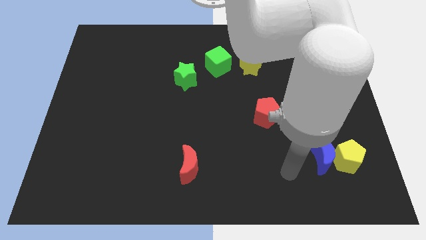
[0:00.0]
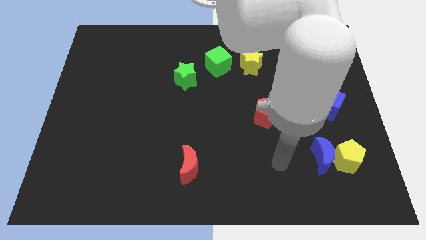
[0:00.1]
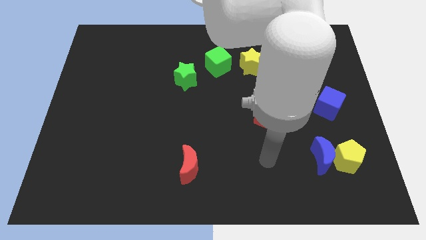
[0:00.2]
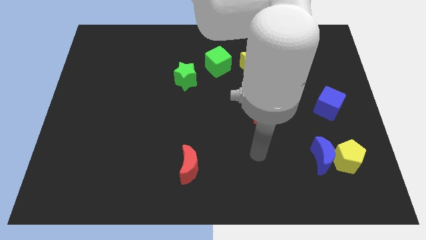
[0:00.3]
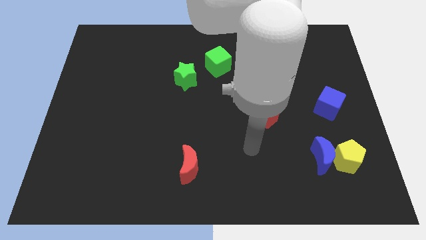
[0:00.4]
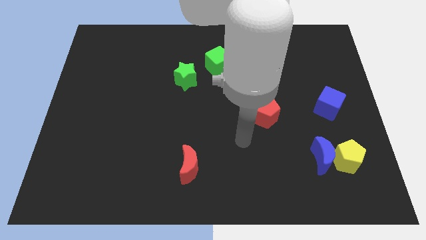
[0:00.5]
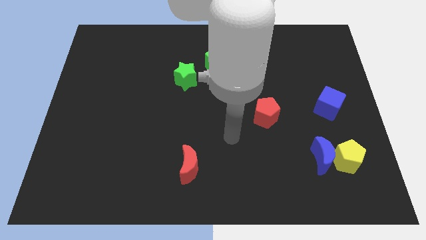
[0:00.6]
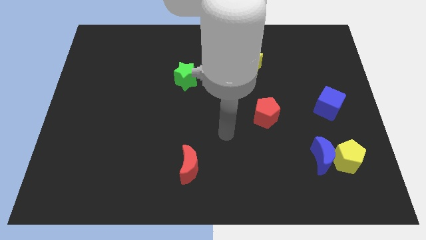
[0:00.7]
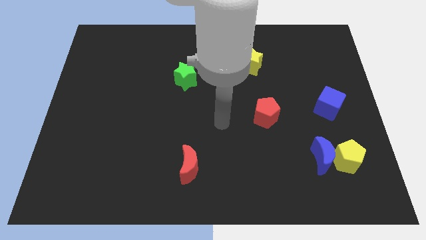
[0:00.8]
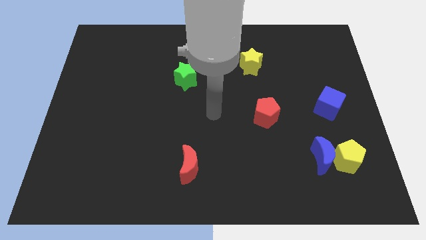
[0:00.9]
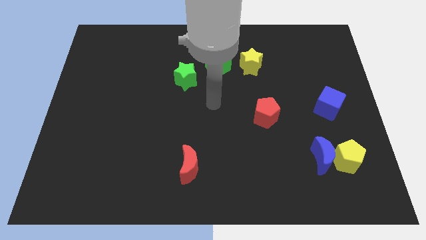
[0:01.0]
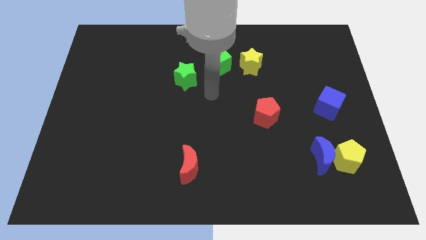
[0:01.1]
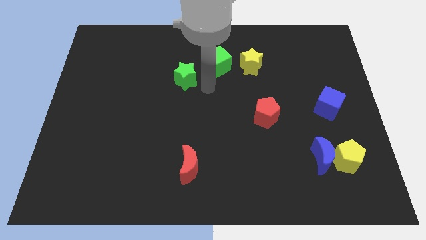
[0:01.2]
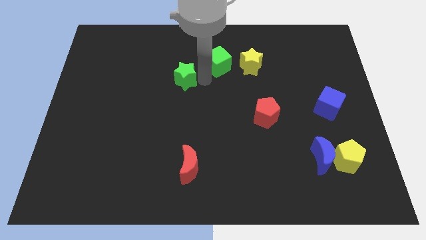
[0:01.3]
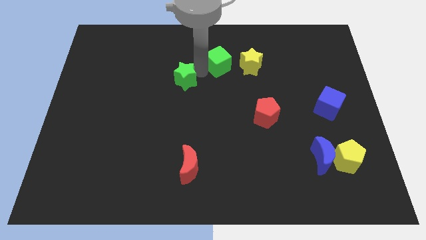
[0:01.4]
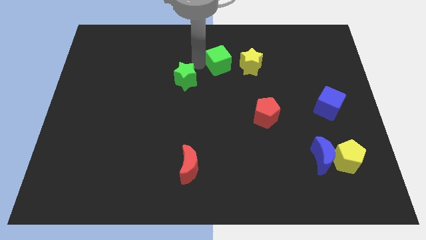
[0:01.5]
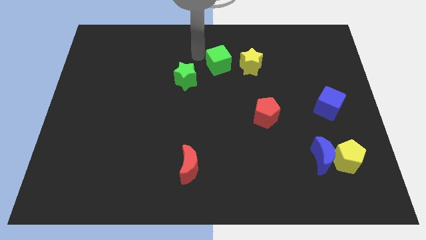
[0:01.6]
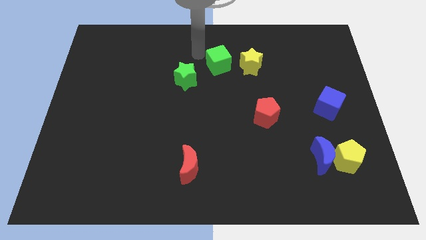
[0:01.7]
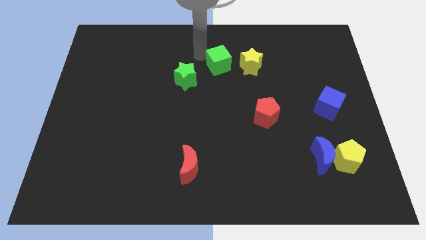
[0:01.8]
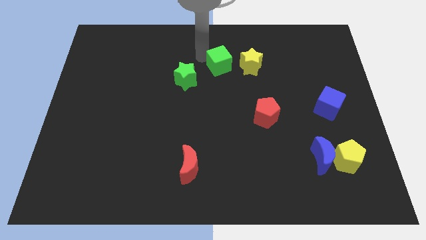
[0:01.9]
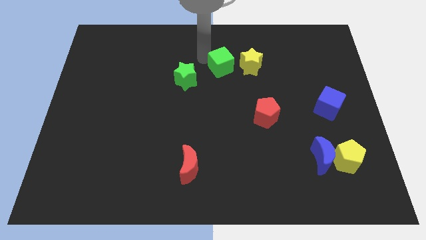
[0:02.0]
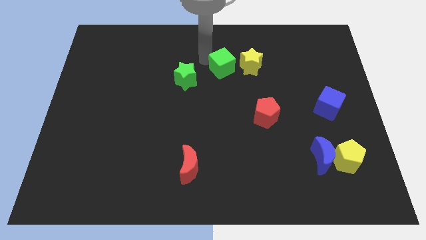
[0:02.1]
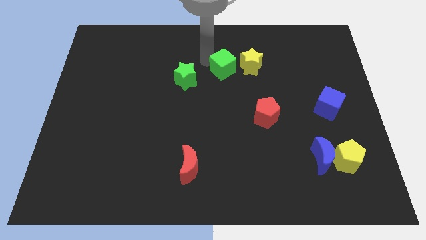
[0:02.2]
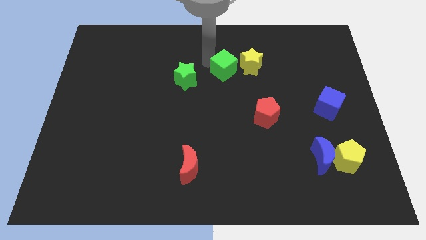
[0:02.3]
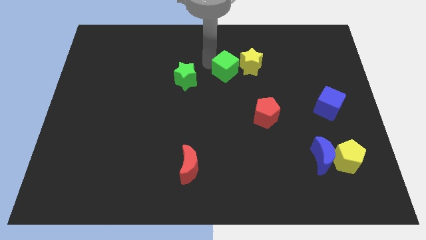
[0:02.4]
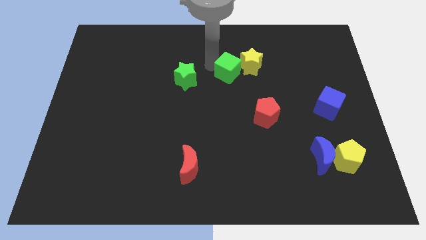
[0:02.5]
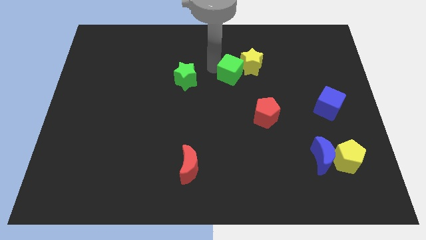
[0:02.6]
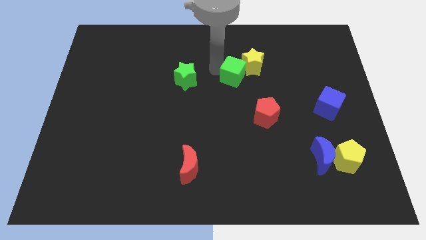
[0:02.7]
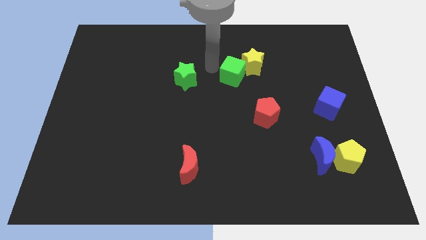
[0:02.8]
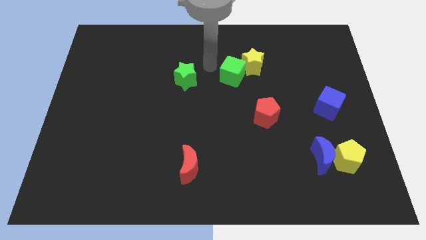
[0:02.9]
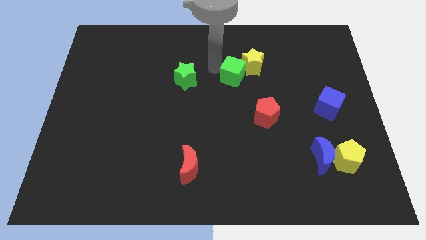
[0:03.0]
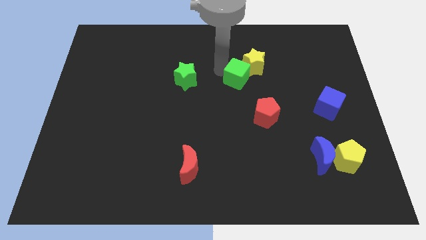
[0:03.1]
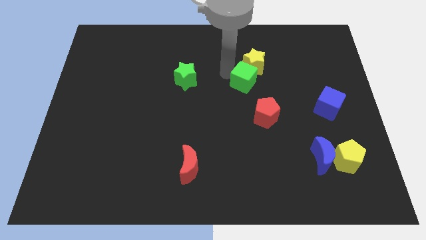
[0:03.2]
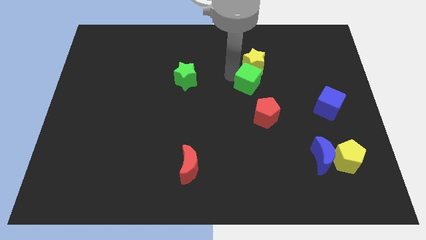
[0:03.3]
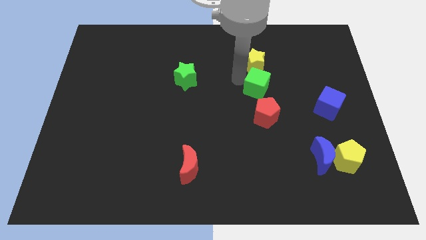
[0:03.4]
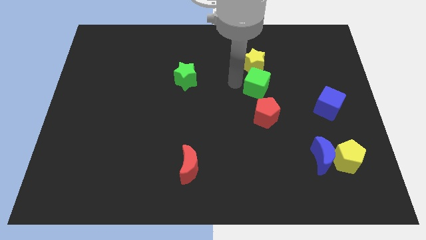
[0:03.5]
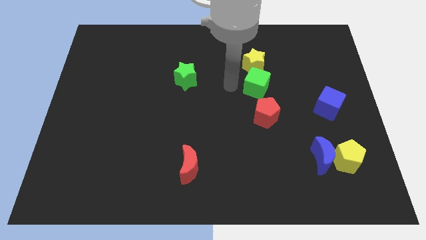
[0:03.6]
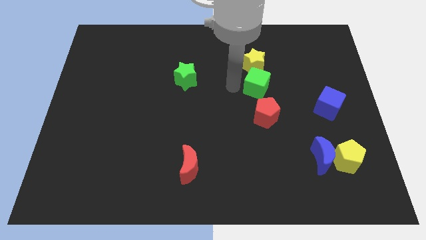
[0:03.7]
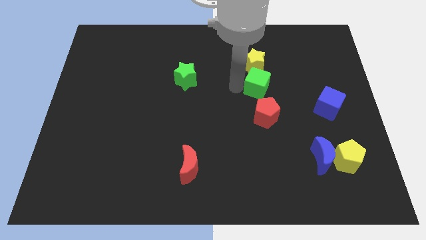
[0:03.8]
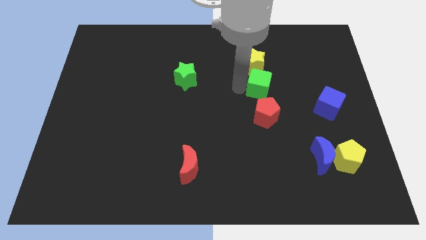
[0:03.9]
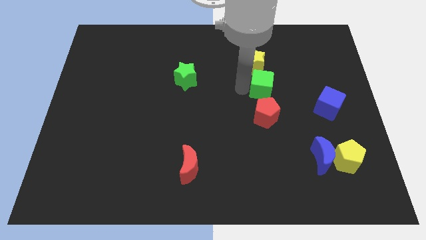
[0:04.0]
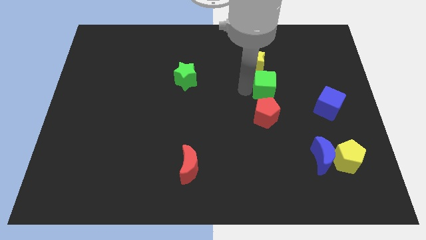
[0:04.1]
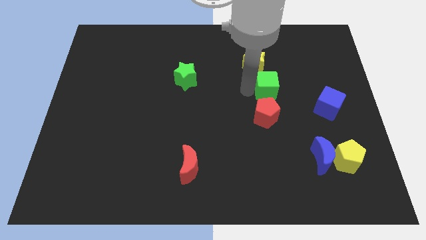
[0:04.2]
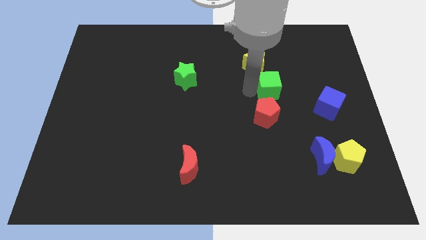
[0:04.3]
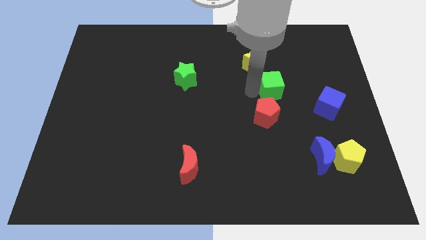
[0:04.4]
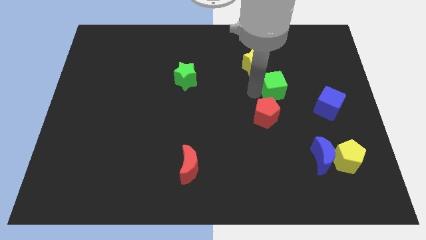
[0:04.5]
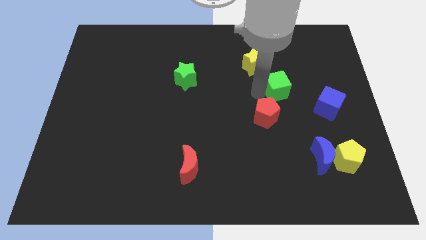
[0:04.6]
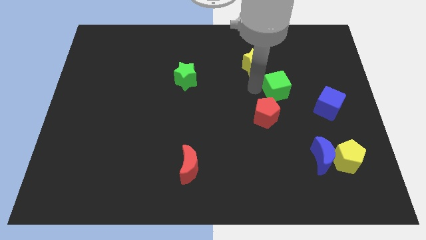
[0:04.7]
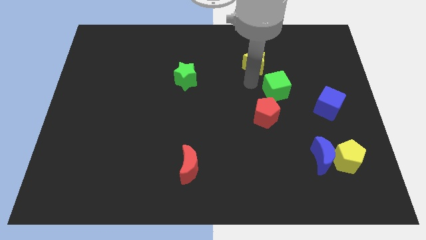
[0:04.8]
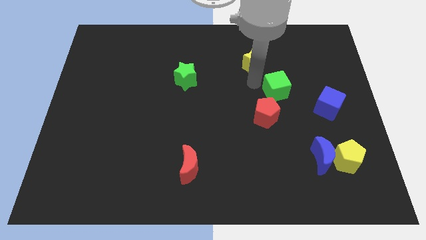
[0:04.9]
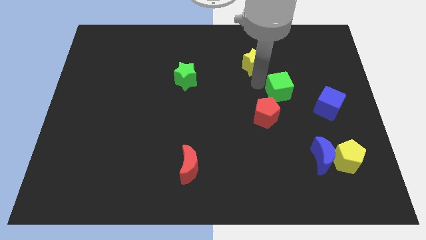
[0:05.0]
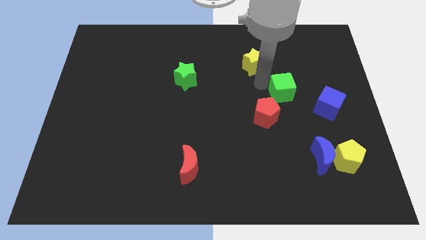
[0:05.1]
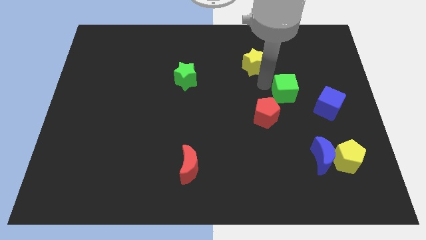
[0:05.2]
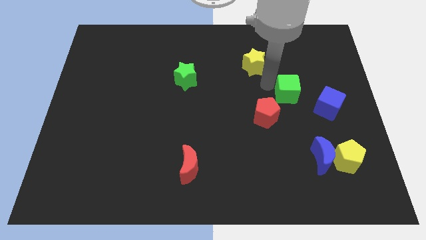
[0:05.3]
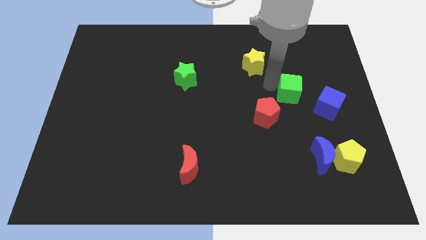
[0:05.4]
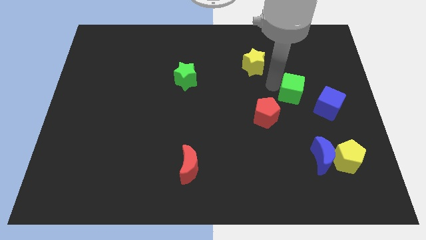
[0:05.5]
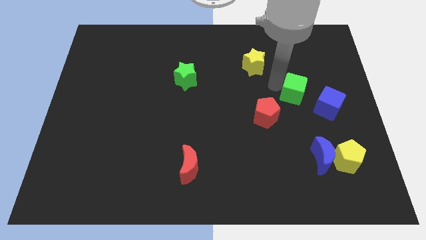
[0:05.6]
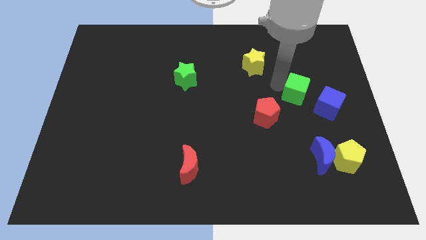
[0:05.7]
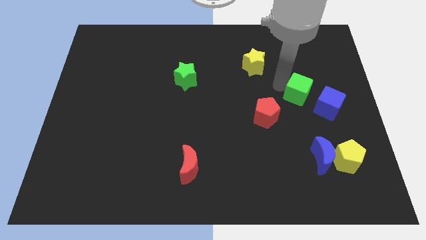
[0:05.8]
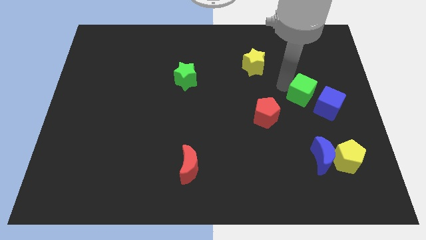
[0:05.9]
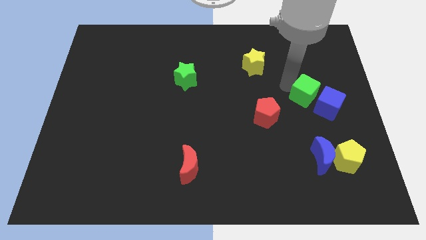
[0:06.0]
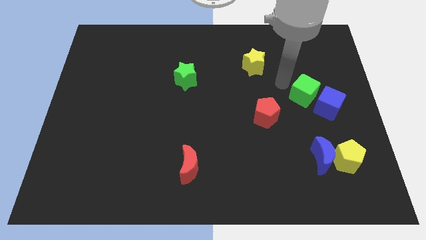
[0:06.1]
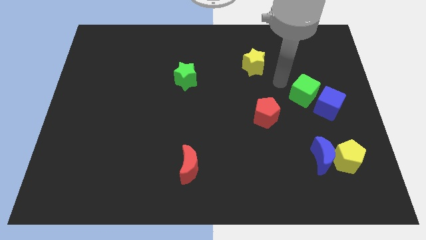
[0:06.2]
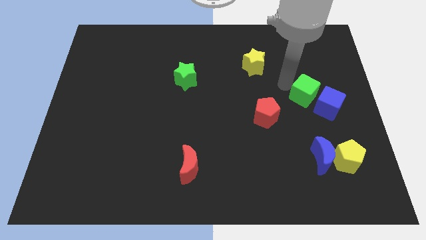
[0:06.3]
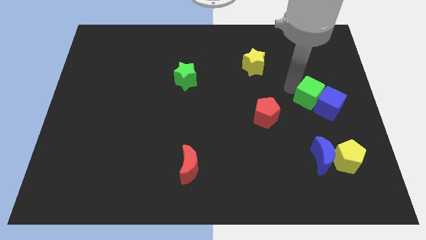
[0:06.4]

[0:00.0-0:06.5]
slide the green cube next to the blue cube

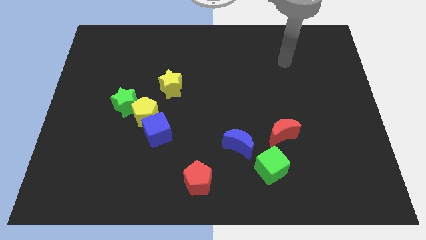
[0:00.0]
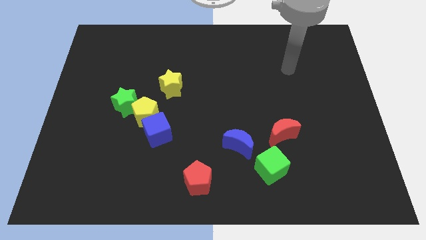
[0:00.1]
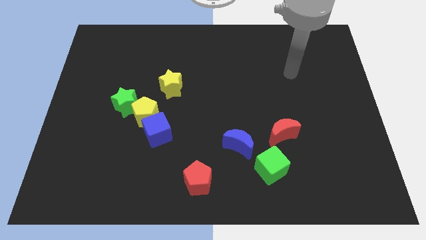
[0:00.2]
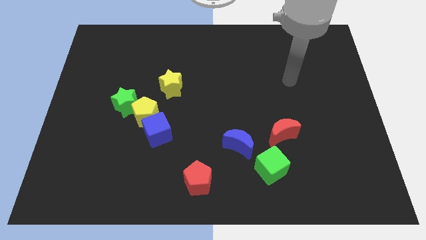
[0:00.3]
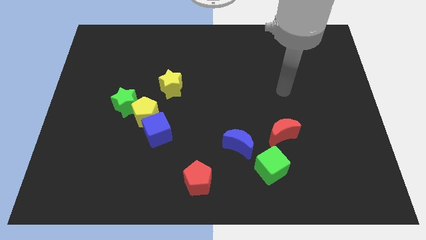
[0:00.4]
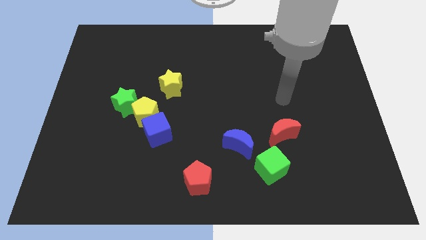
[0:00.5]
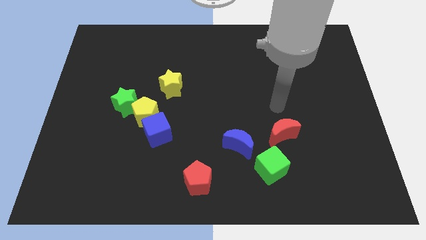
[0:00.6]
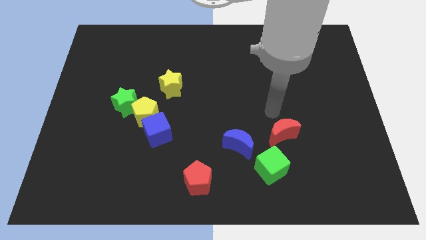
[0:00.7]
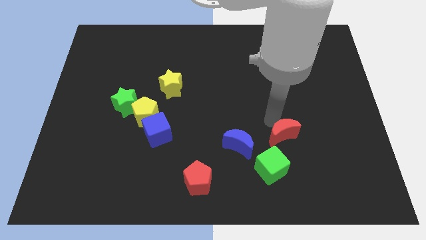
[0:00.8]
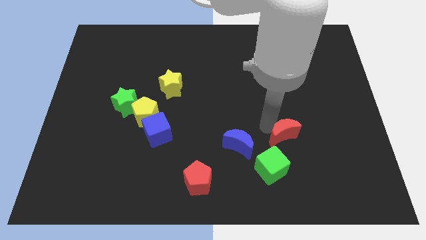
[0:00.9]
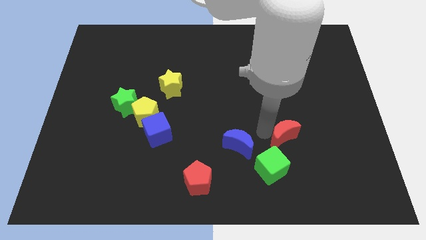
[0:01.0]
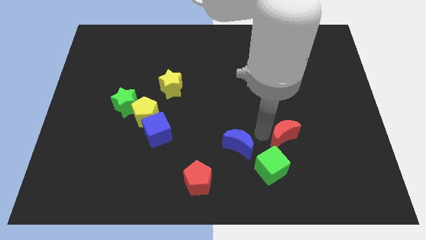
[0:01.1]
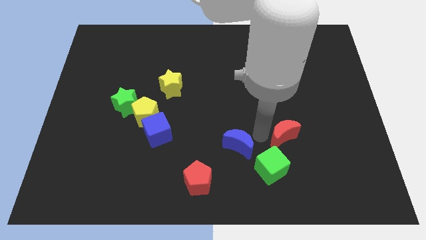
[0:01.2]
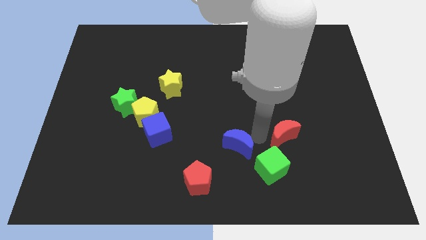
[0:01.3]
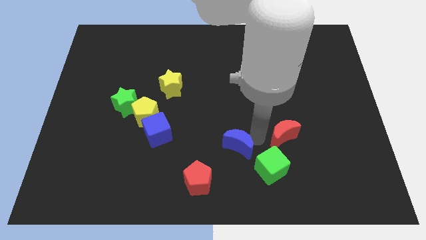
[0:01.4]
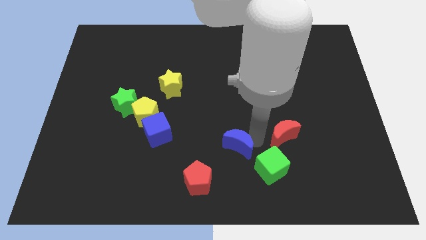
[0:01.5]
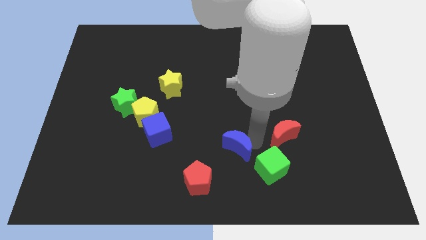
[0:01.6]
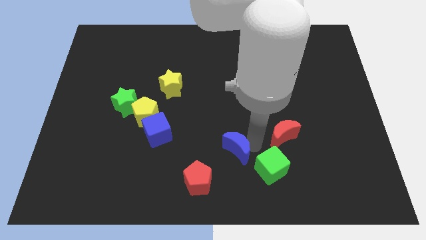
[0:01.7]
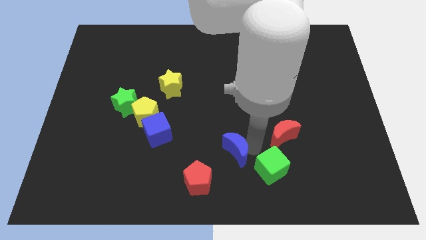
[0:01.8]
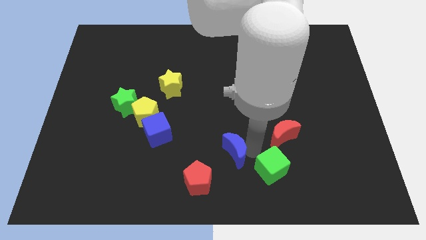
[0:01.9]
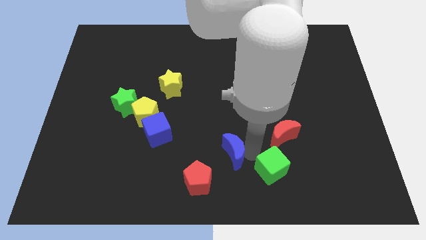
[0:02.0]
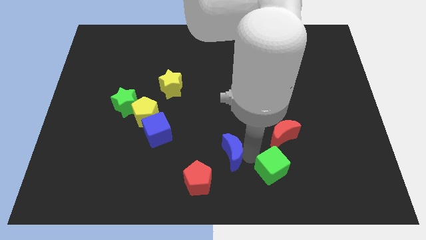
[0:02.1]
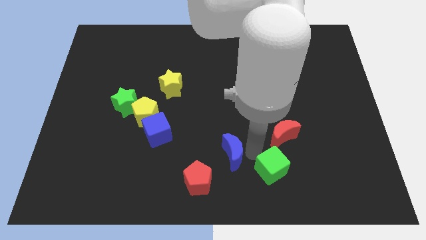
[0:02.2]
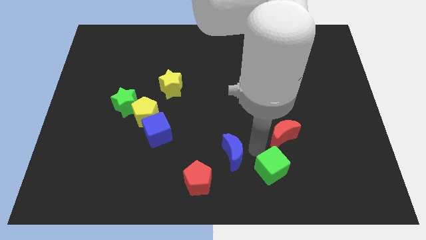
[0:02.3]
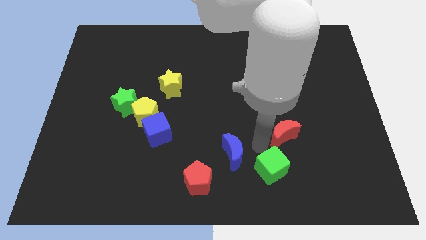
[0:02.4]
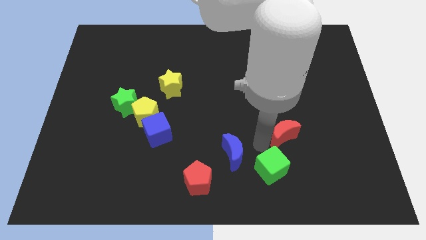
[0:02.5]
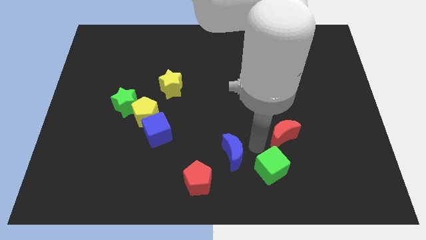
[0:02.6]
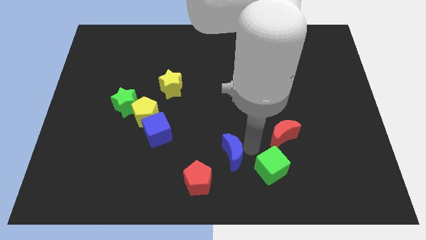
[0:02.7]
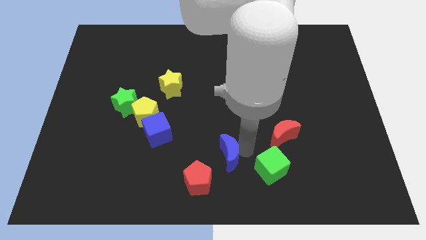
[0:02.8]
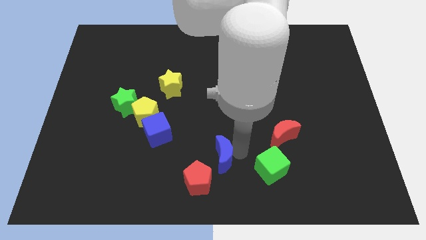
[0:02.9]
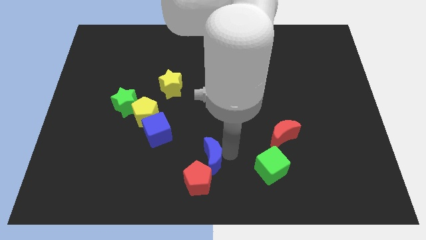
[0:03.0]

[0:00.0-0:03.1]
push the blue moon next to the red pentagon
